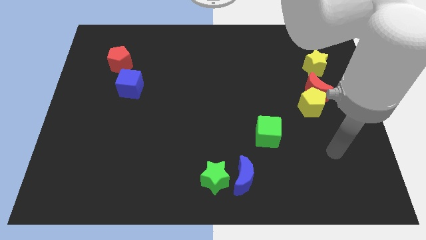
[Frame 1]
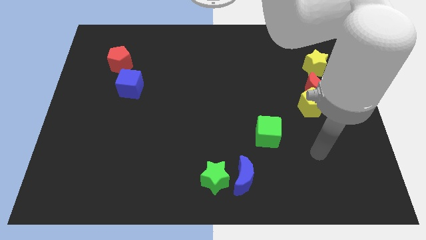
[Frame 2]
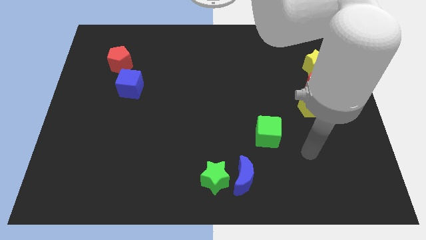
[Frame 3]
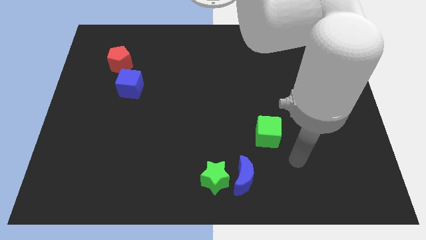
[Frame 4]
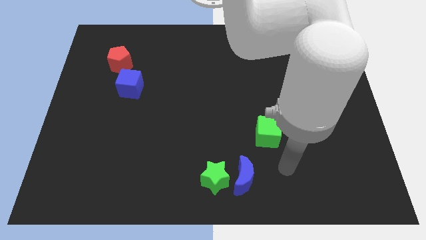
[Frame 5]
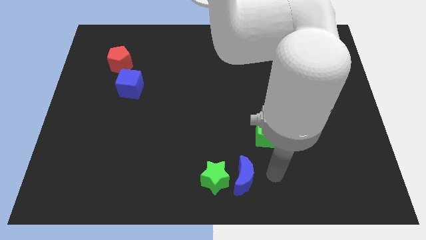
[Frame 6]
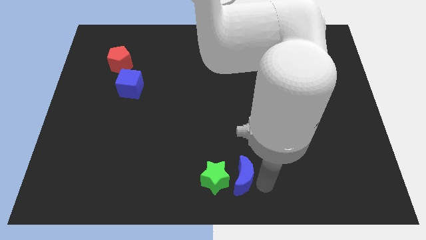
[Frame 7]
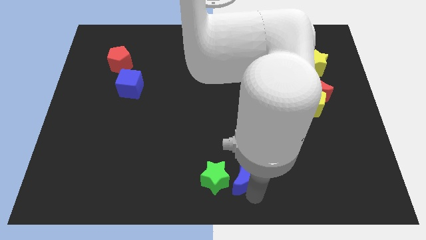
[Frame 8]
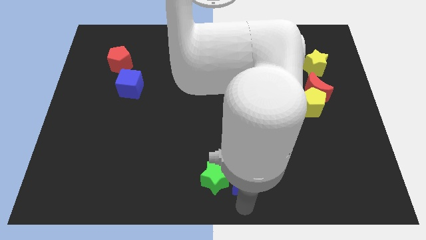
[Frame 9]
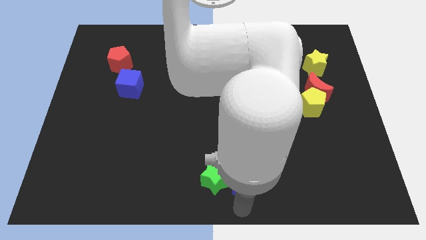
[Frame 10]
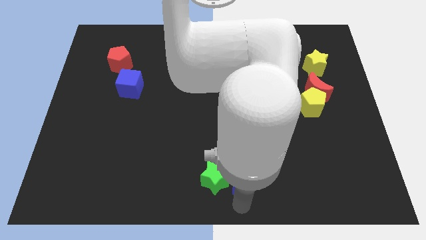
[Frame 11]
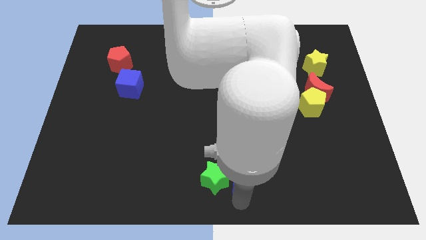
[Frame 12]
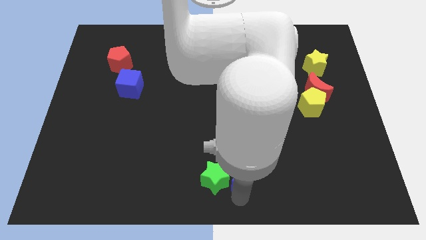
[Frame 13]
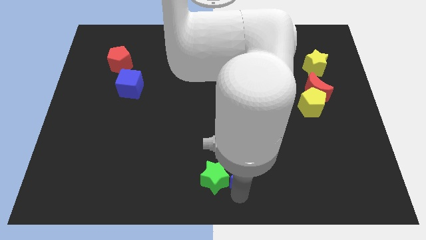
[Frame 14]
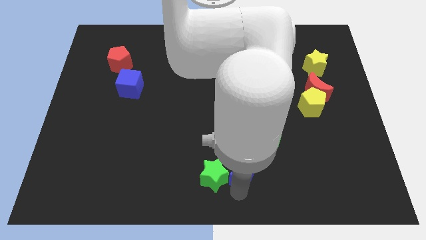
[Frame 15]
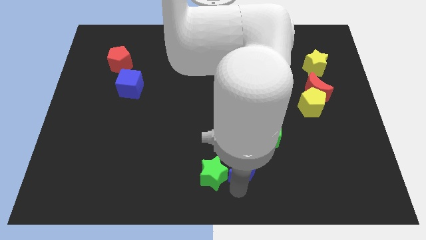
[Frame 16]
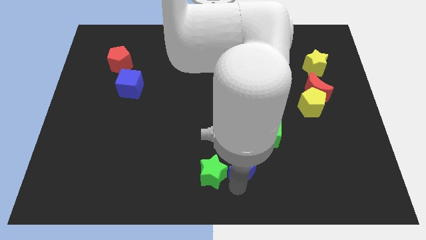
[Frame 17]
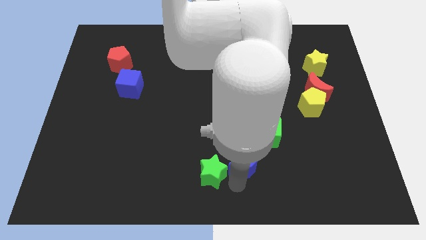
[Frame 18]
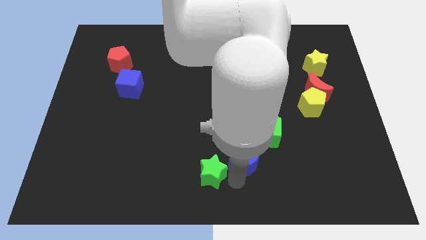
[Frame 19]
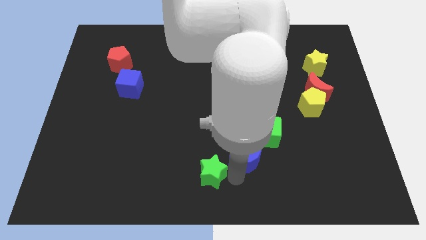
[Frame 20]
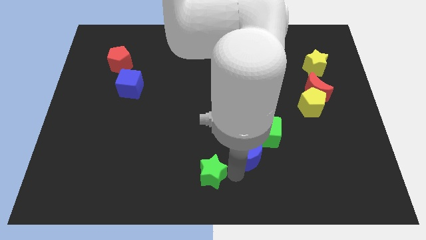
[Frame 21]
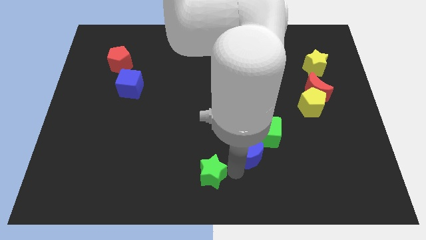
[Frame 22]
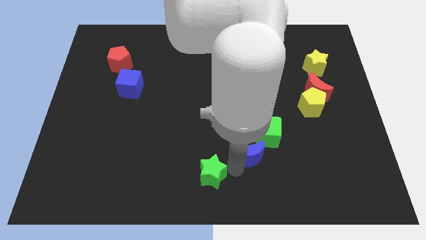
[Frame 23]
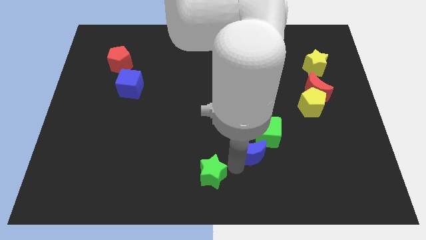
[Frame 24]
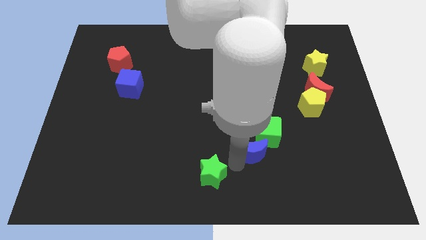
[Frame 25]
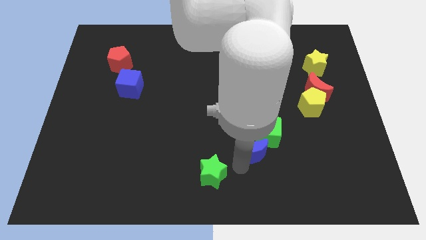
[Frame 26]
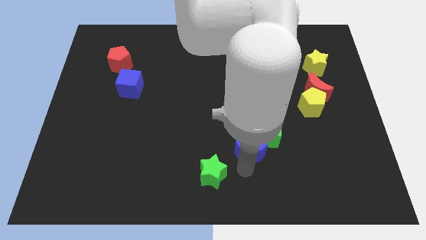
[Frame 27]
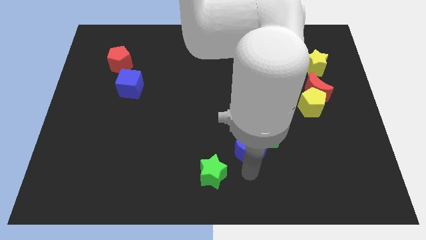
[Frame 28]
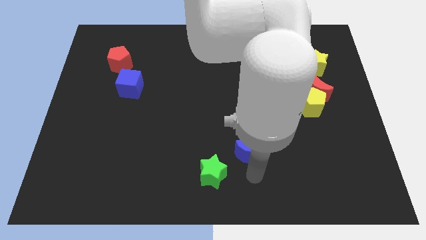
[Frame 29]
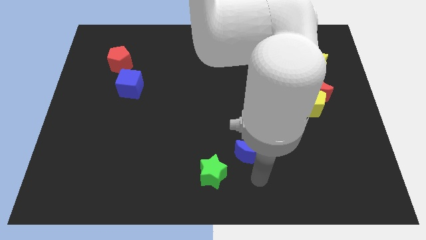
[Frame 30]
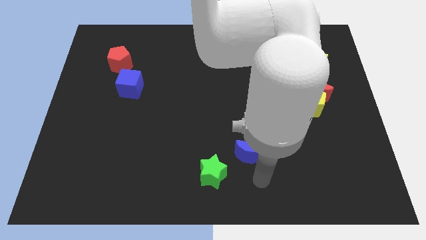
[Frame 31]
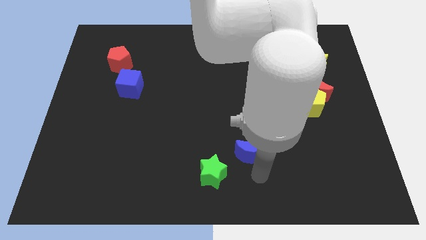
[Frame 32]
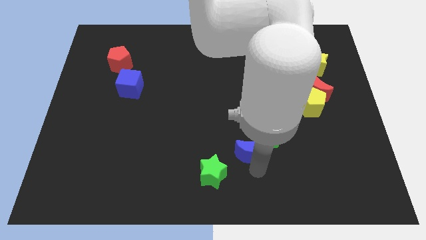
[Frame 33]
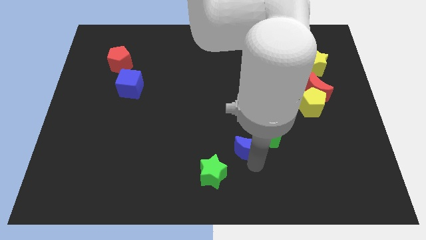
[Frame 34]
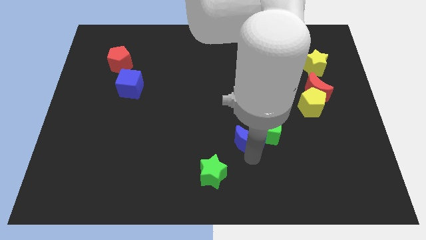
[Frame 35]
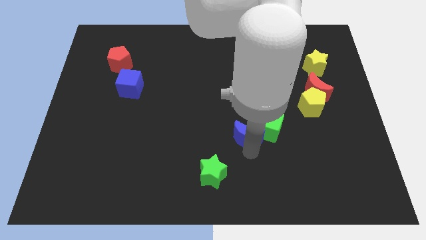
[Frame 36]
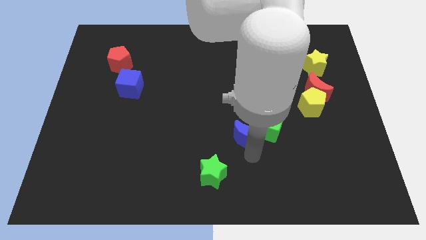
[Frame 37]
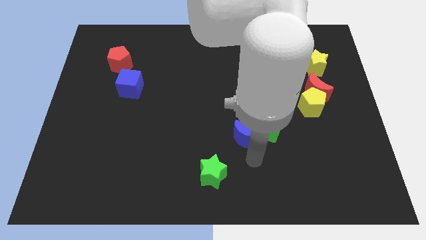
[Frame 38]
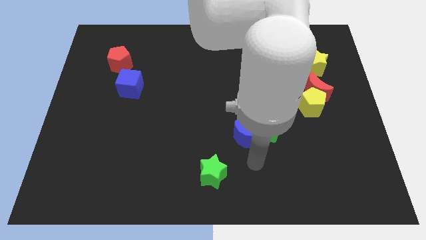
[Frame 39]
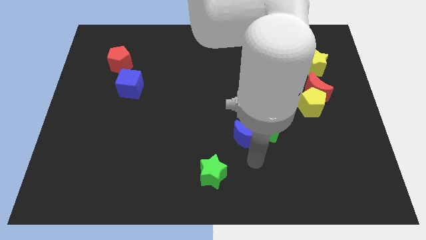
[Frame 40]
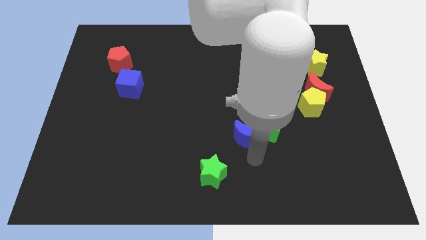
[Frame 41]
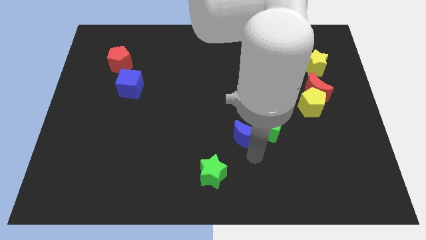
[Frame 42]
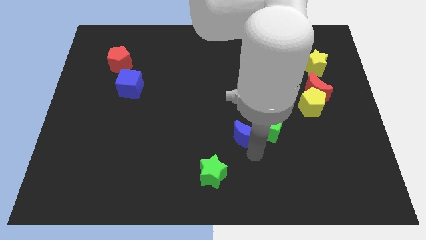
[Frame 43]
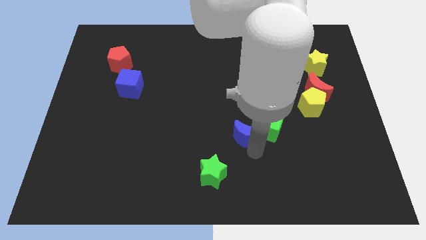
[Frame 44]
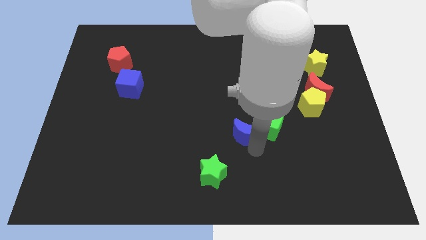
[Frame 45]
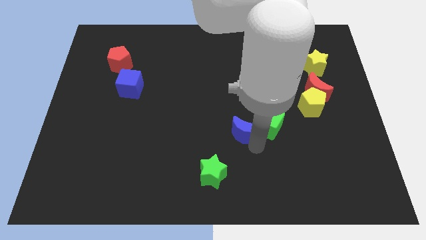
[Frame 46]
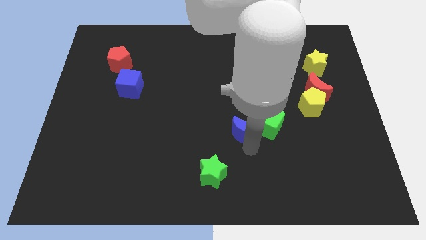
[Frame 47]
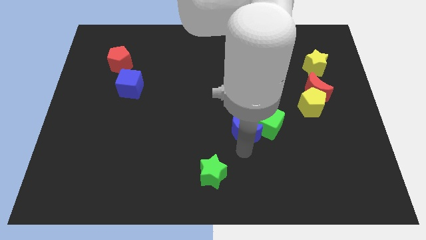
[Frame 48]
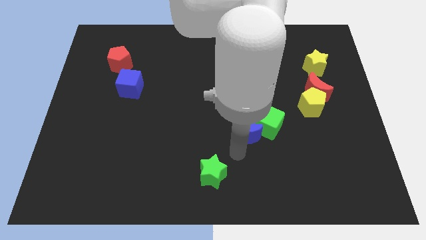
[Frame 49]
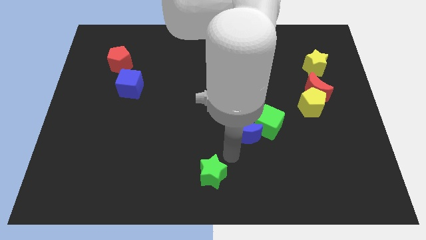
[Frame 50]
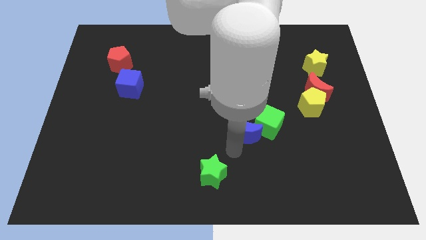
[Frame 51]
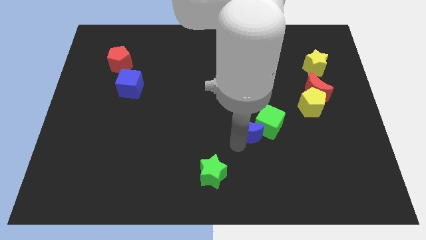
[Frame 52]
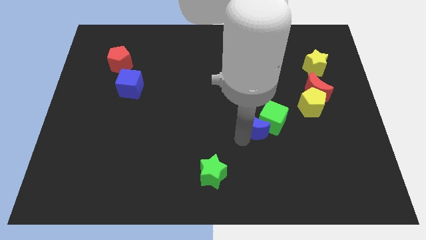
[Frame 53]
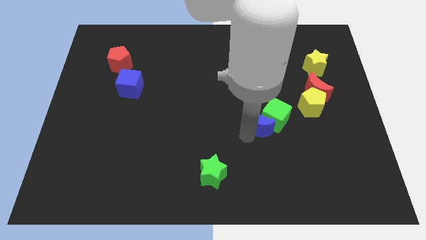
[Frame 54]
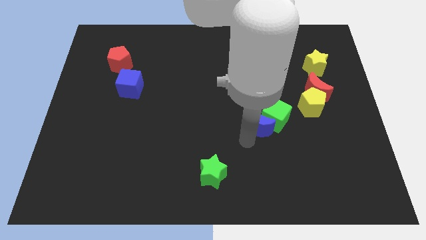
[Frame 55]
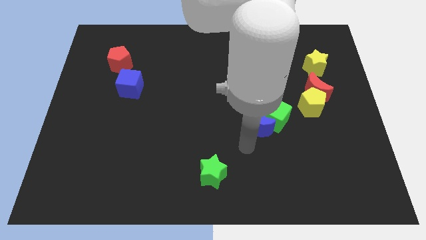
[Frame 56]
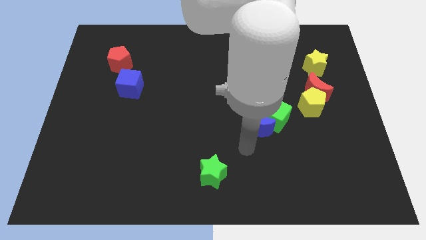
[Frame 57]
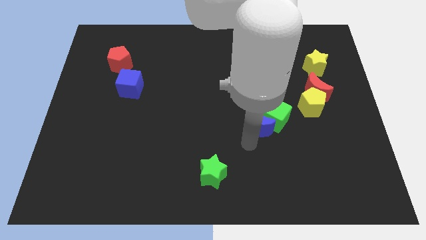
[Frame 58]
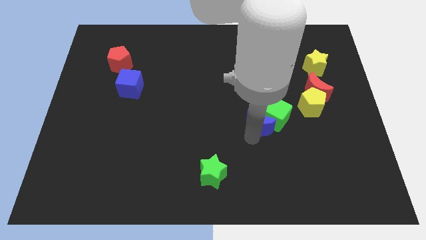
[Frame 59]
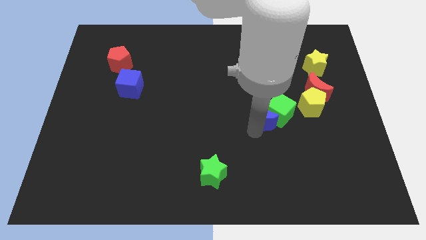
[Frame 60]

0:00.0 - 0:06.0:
push the blue moon to the left of the yellow pentagon
